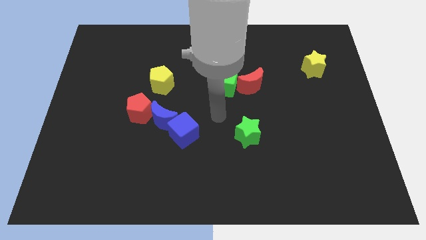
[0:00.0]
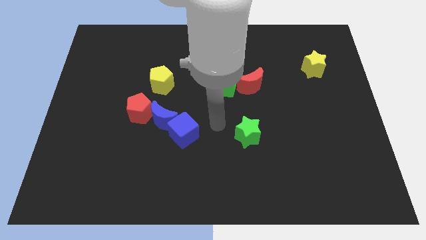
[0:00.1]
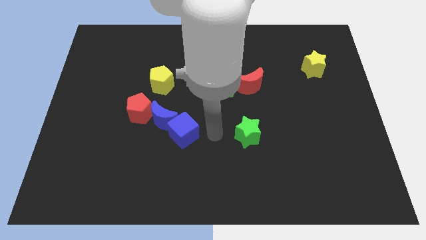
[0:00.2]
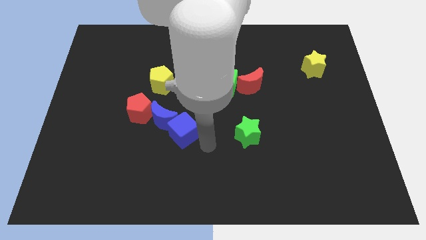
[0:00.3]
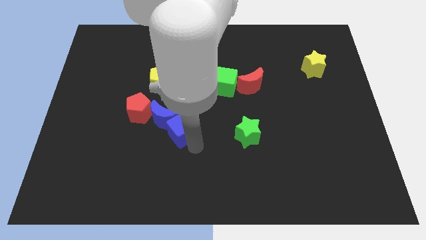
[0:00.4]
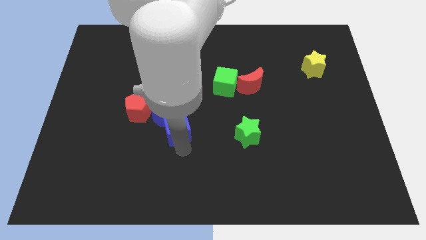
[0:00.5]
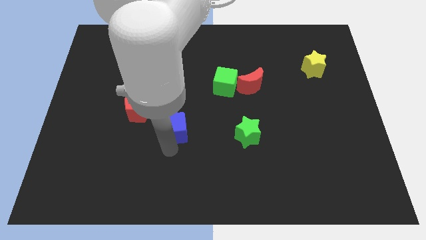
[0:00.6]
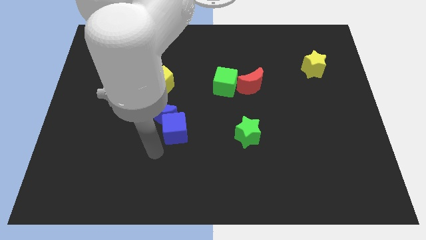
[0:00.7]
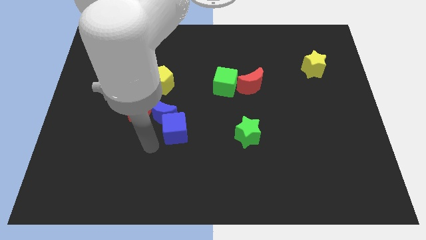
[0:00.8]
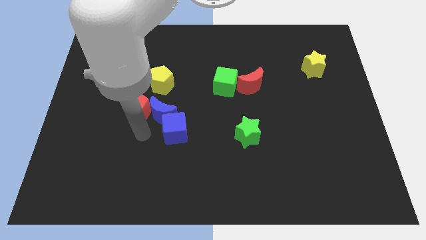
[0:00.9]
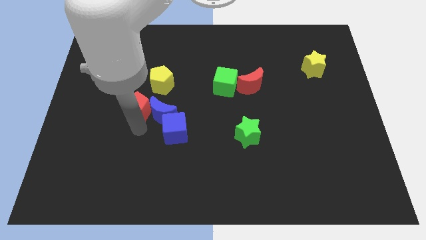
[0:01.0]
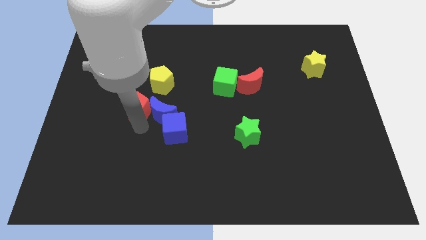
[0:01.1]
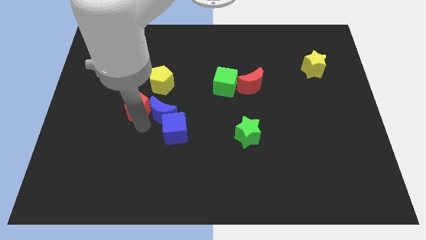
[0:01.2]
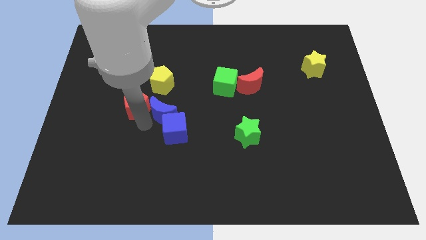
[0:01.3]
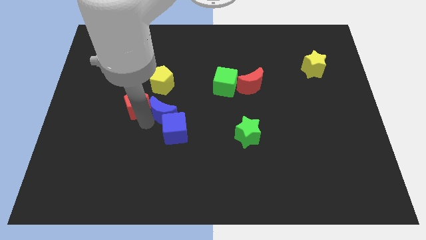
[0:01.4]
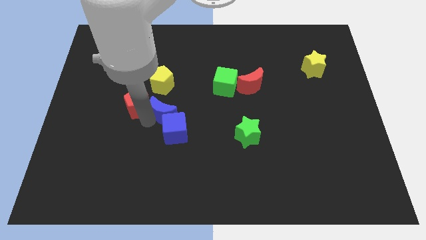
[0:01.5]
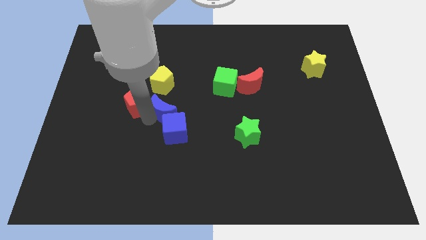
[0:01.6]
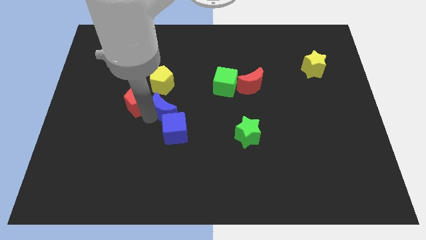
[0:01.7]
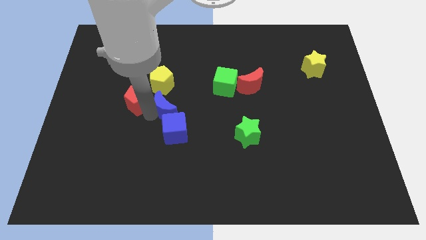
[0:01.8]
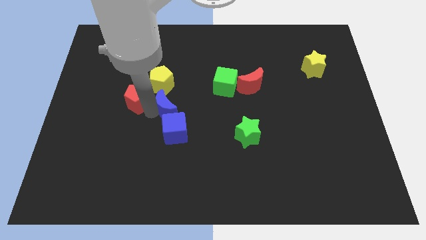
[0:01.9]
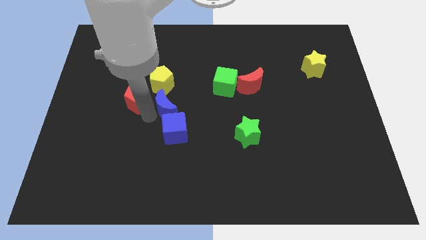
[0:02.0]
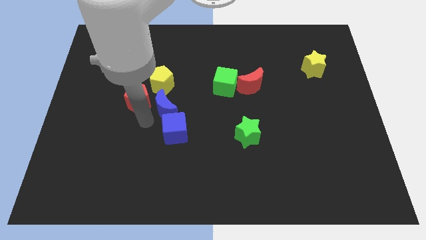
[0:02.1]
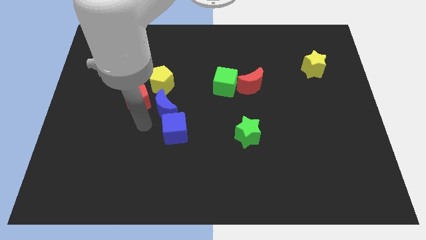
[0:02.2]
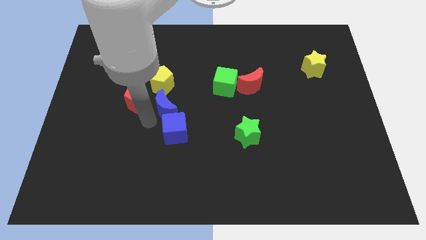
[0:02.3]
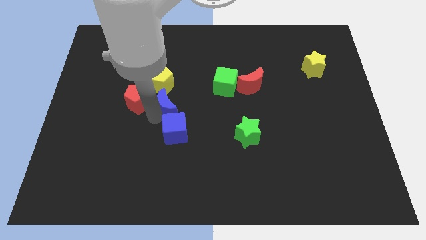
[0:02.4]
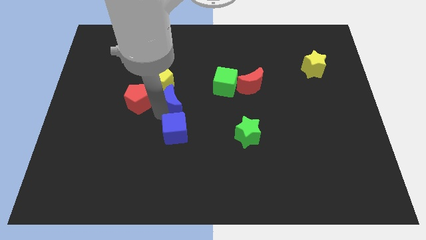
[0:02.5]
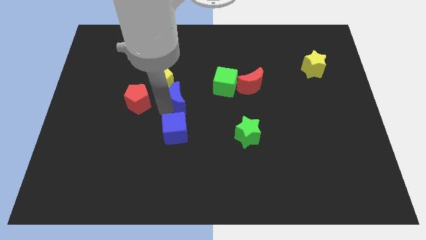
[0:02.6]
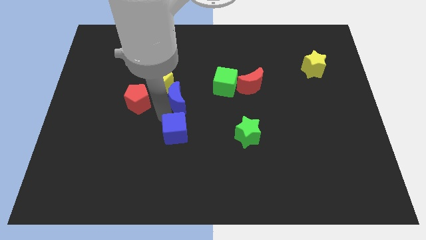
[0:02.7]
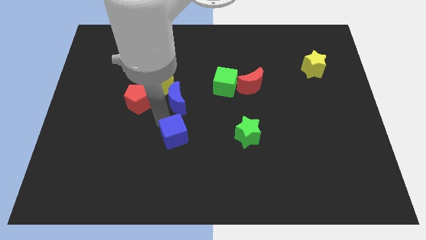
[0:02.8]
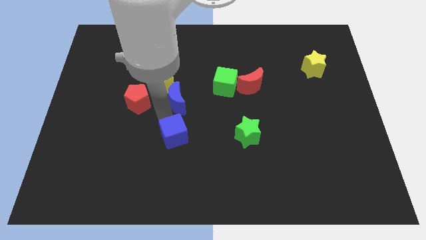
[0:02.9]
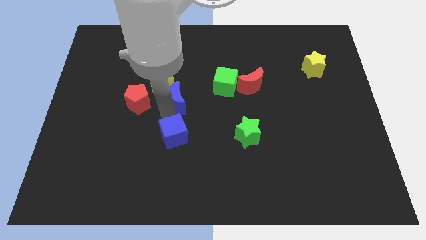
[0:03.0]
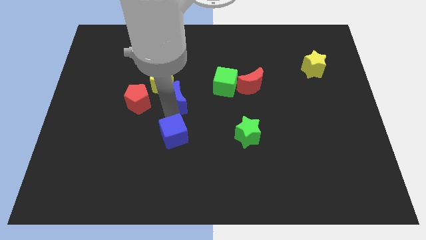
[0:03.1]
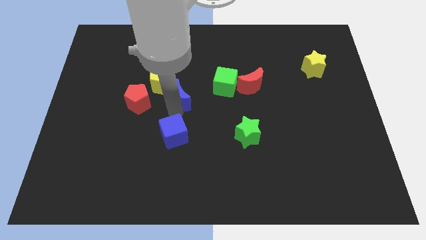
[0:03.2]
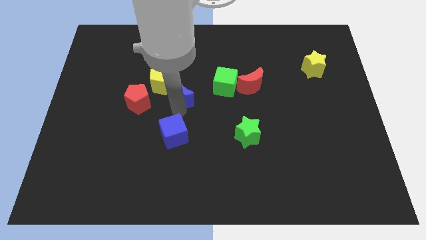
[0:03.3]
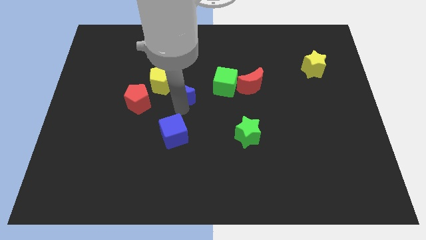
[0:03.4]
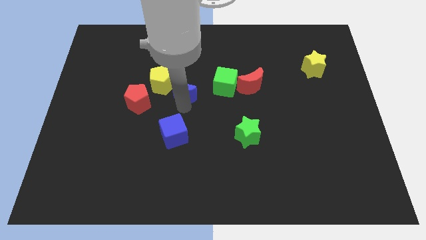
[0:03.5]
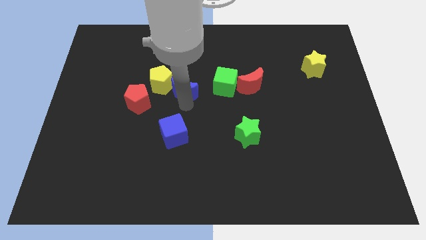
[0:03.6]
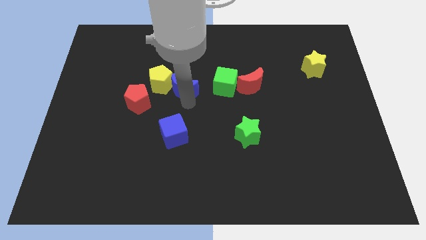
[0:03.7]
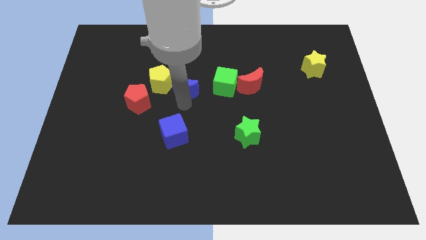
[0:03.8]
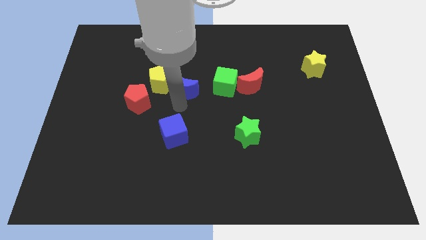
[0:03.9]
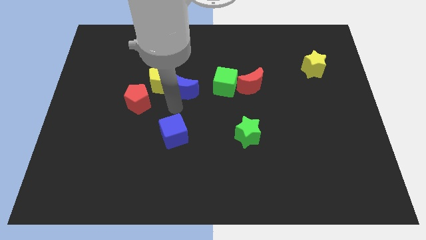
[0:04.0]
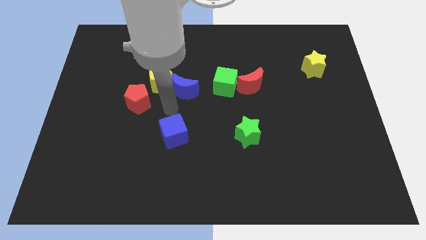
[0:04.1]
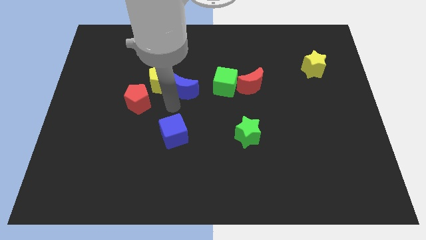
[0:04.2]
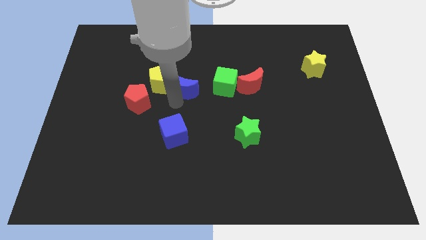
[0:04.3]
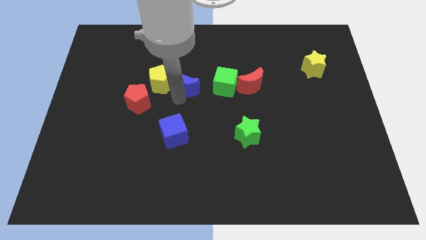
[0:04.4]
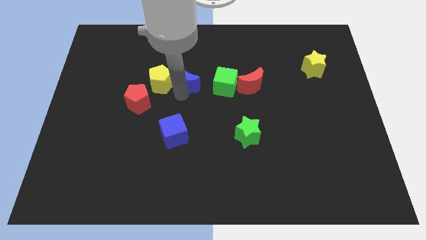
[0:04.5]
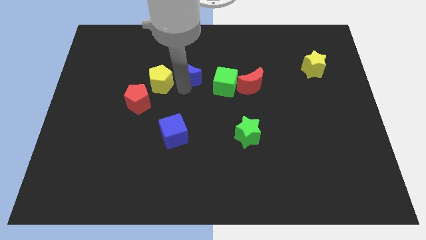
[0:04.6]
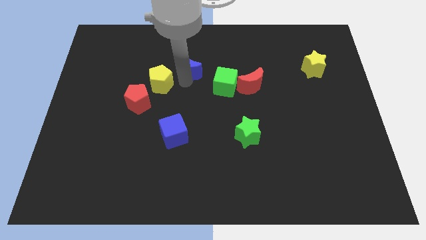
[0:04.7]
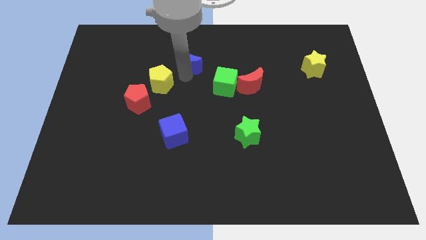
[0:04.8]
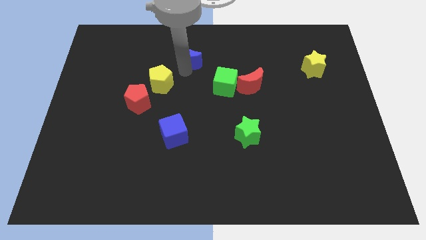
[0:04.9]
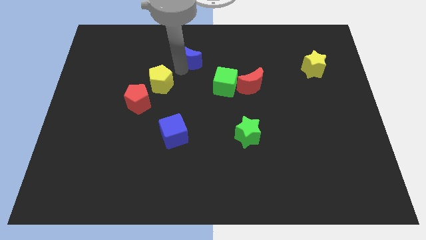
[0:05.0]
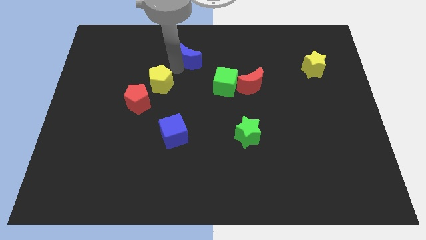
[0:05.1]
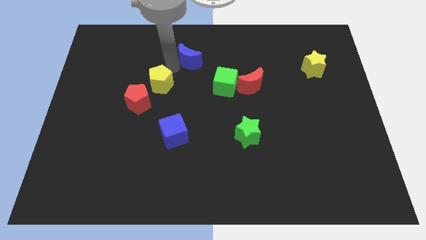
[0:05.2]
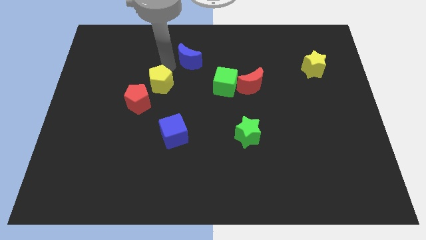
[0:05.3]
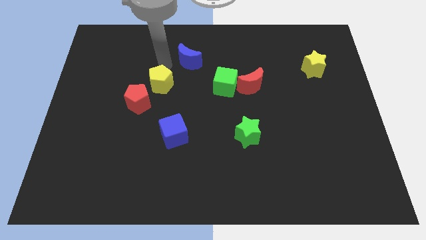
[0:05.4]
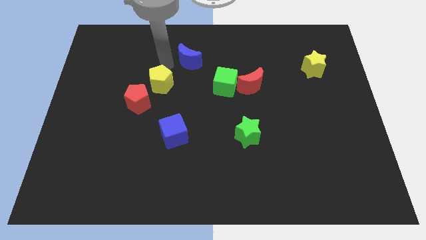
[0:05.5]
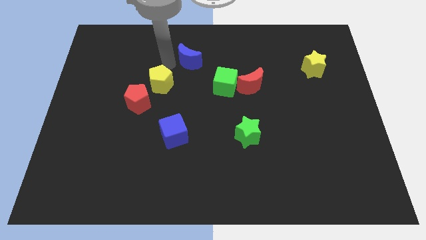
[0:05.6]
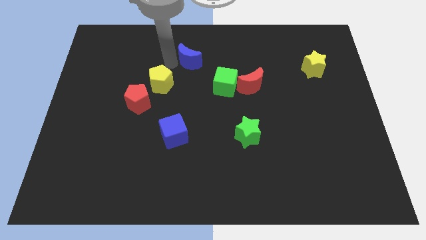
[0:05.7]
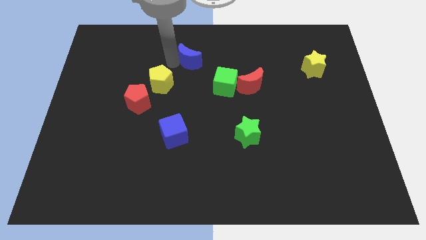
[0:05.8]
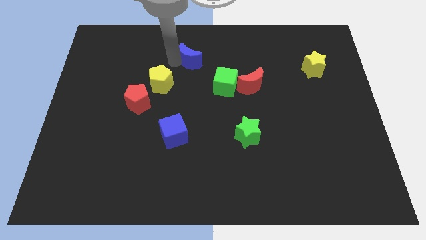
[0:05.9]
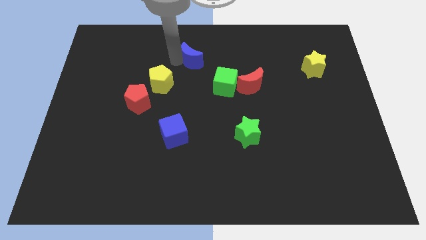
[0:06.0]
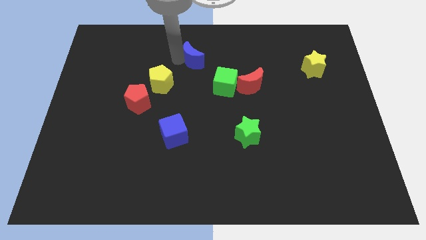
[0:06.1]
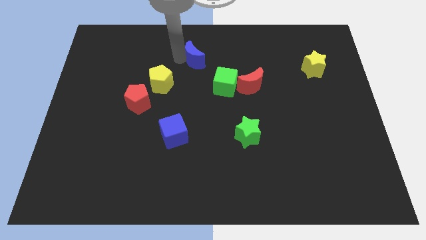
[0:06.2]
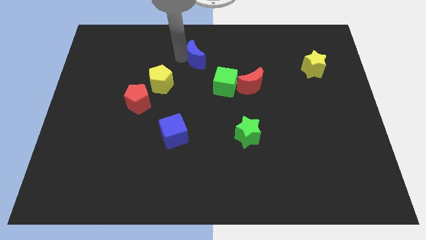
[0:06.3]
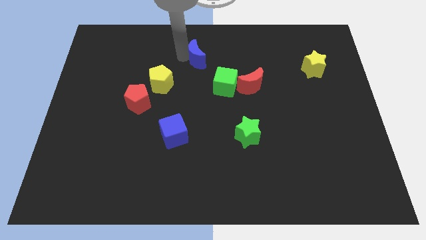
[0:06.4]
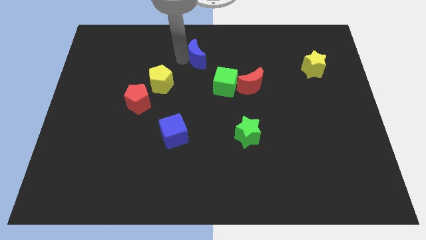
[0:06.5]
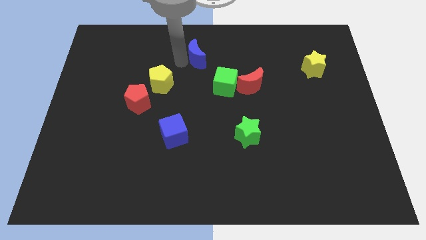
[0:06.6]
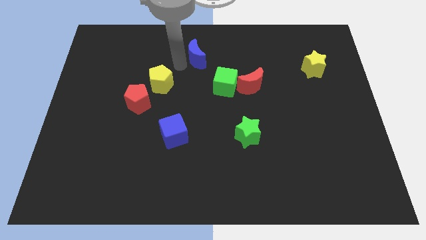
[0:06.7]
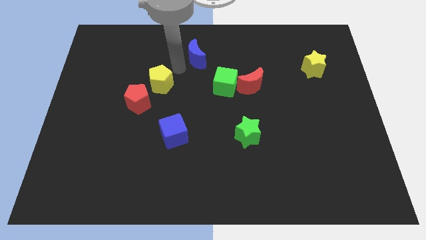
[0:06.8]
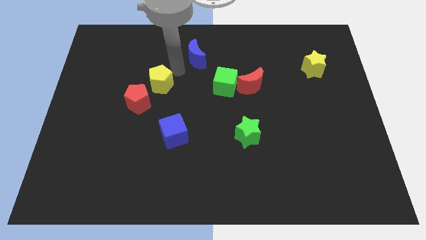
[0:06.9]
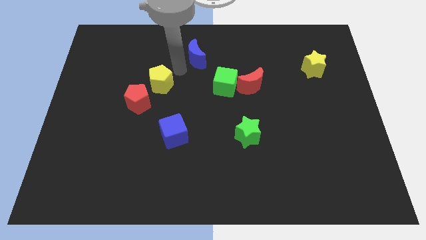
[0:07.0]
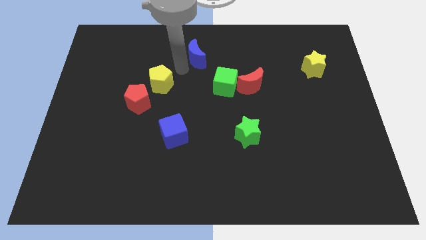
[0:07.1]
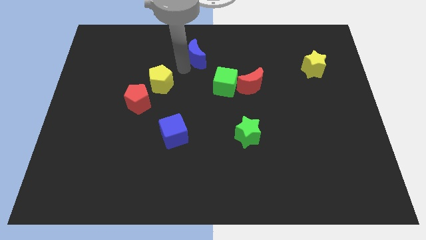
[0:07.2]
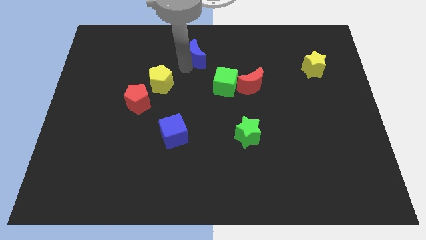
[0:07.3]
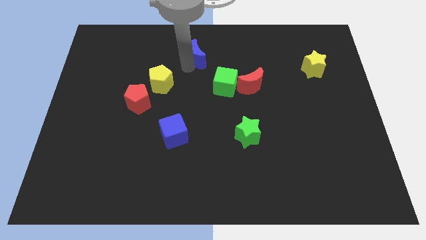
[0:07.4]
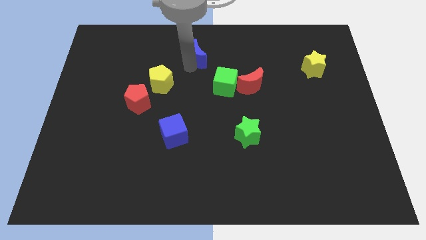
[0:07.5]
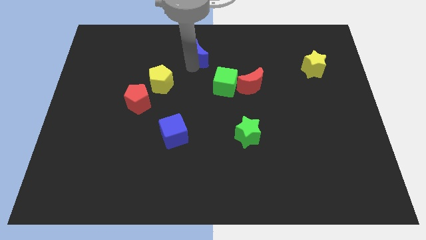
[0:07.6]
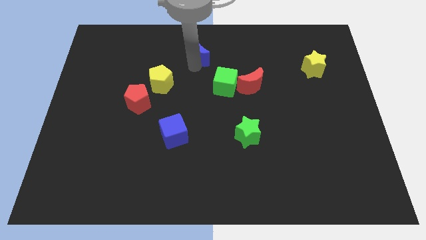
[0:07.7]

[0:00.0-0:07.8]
push the blue moon to the towards your base
